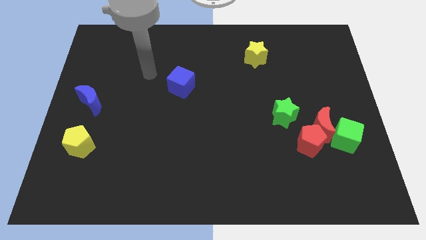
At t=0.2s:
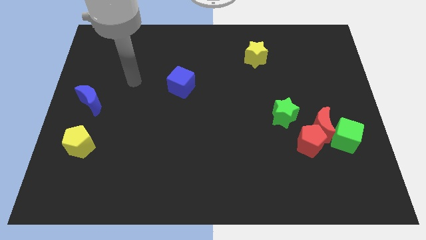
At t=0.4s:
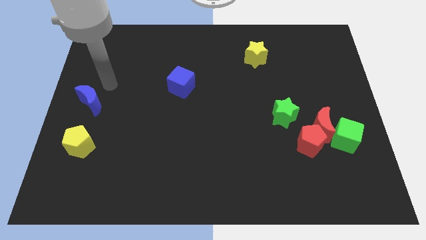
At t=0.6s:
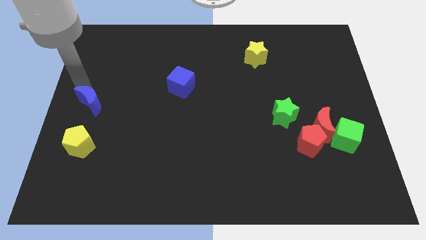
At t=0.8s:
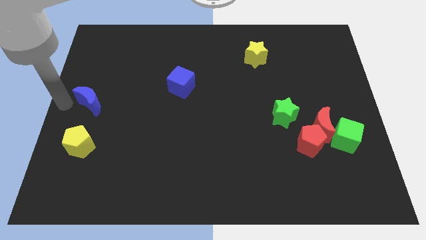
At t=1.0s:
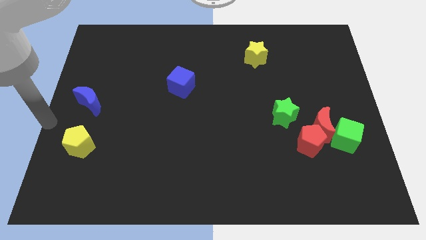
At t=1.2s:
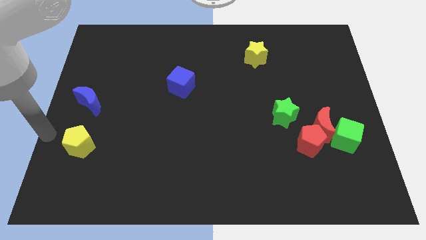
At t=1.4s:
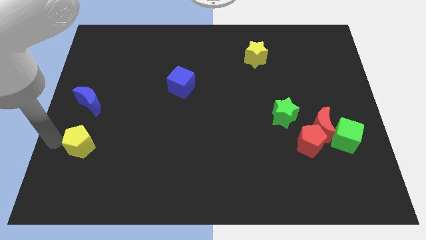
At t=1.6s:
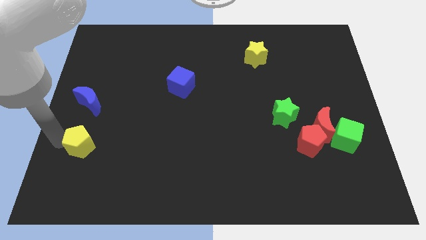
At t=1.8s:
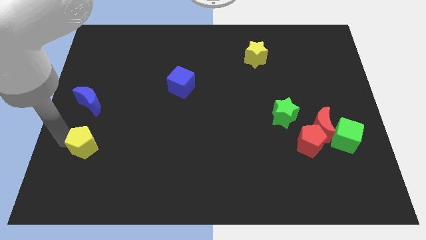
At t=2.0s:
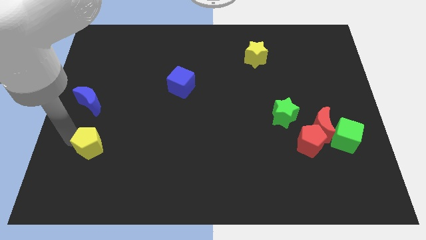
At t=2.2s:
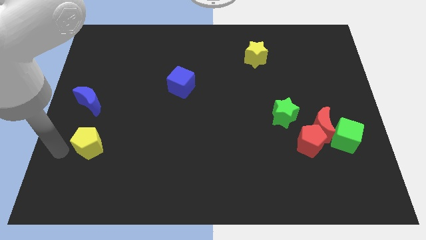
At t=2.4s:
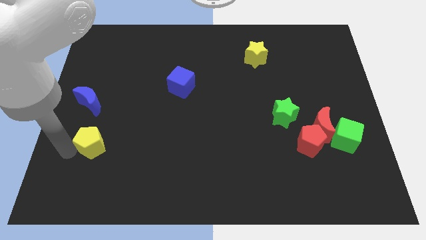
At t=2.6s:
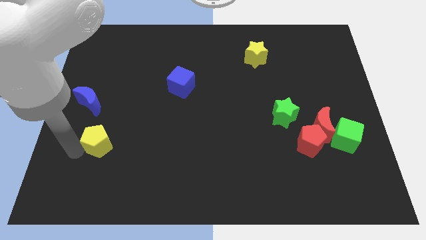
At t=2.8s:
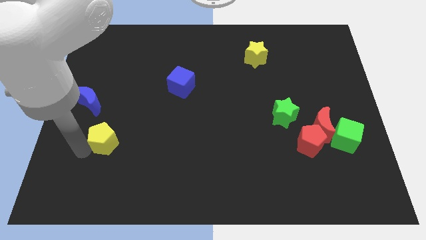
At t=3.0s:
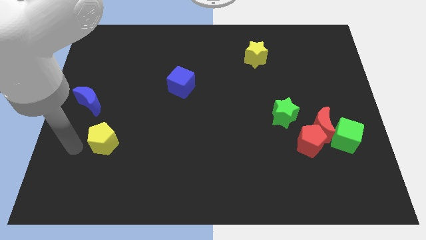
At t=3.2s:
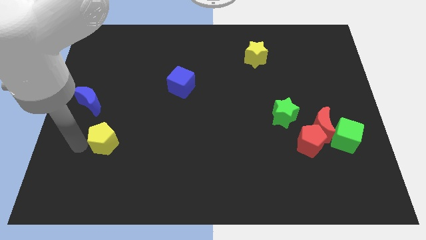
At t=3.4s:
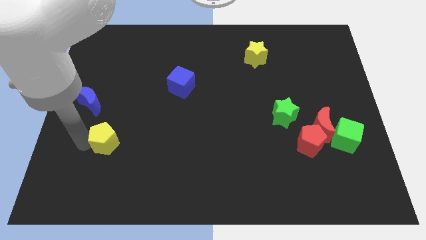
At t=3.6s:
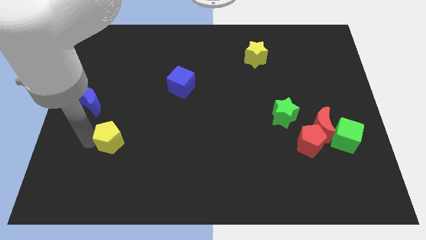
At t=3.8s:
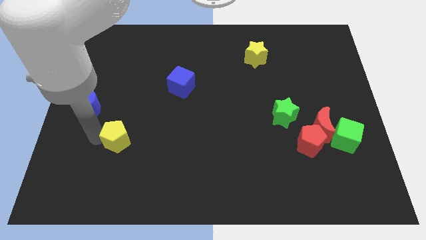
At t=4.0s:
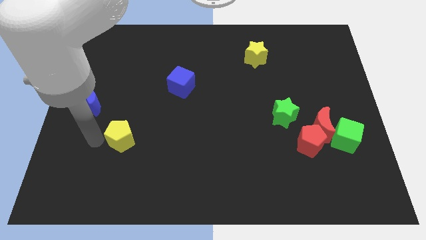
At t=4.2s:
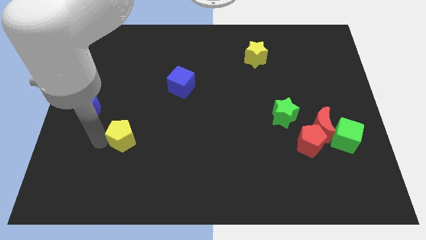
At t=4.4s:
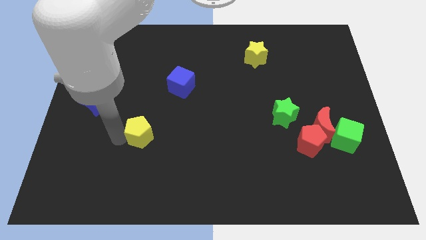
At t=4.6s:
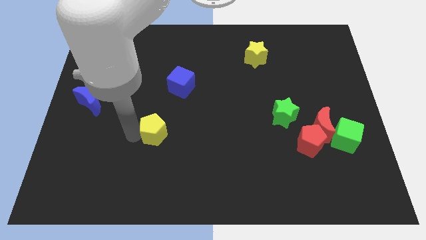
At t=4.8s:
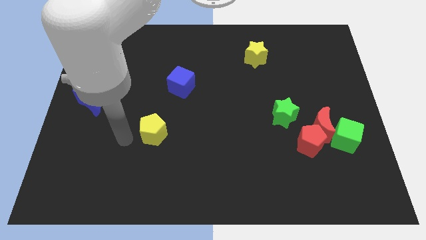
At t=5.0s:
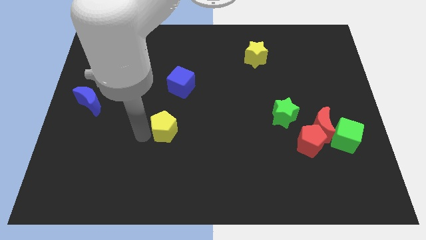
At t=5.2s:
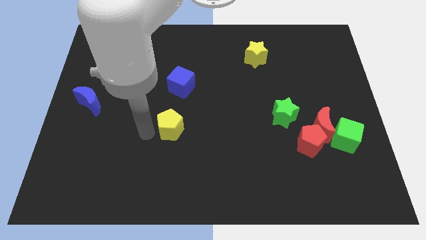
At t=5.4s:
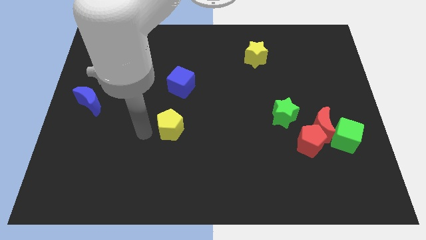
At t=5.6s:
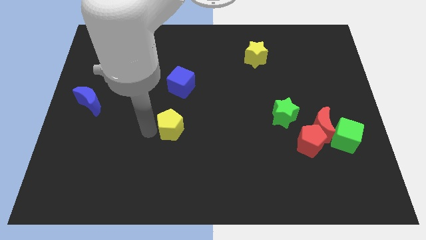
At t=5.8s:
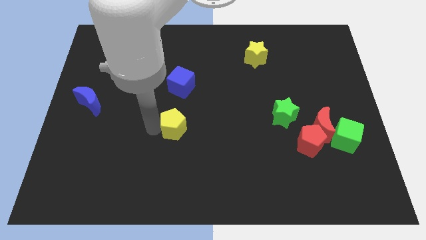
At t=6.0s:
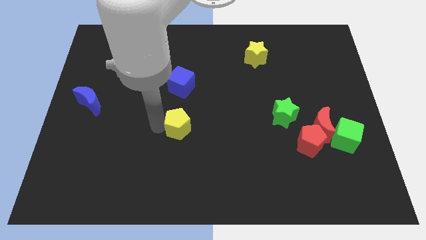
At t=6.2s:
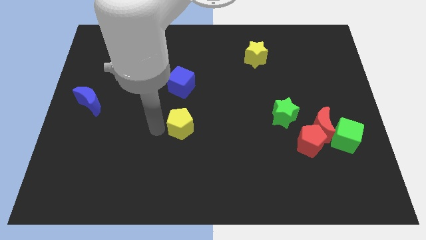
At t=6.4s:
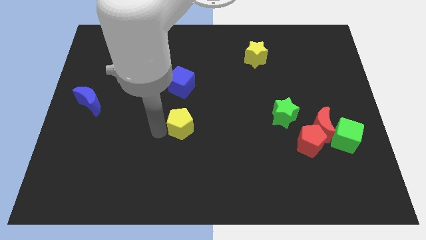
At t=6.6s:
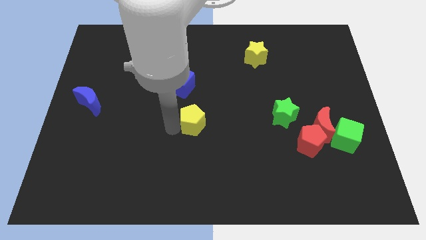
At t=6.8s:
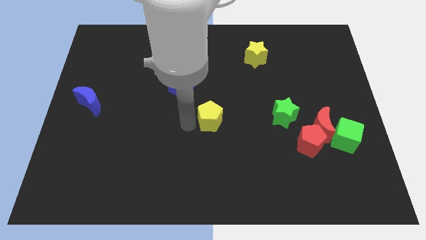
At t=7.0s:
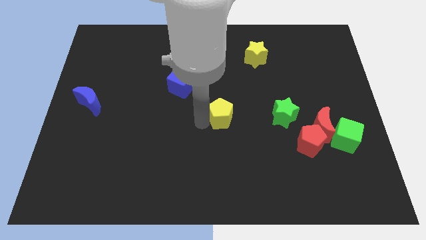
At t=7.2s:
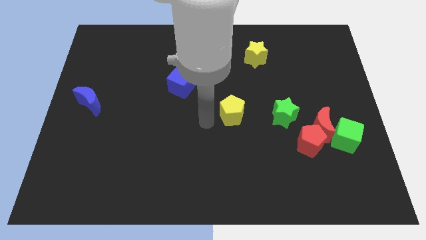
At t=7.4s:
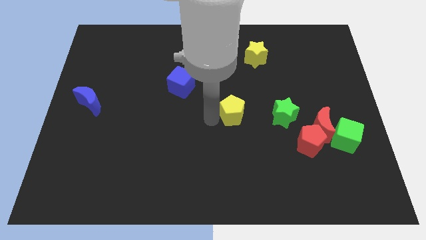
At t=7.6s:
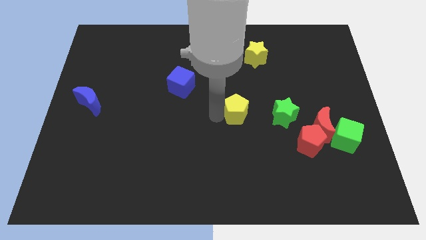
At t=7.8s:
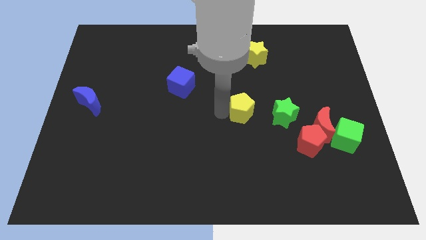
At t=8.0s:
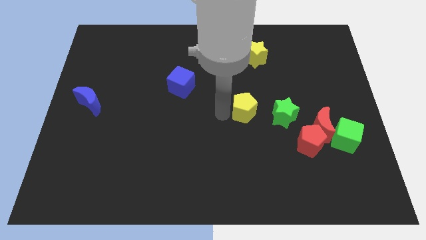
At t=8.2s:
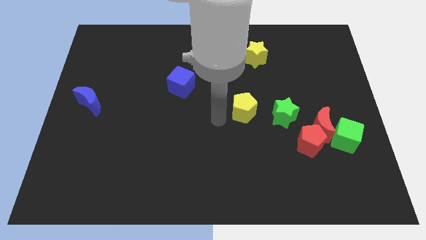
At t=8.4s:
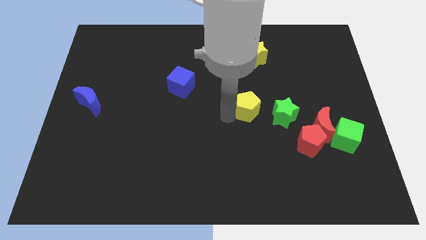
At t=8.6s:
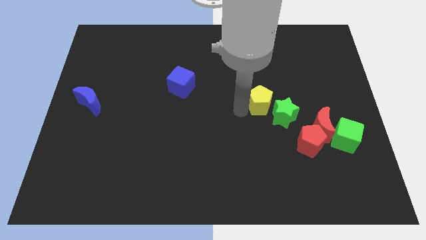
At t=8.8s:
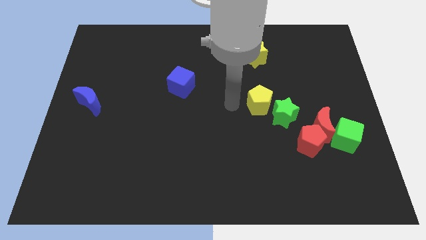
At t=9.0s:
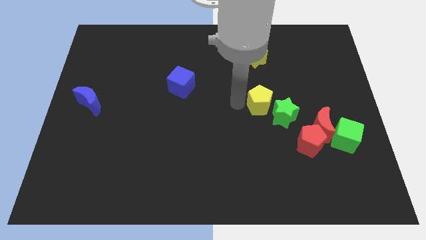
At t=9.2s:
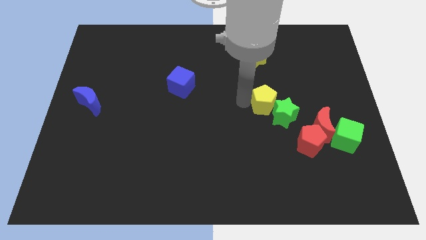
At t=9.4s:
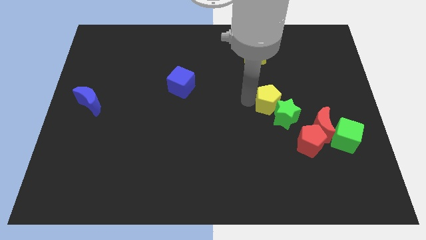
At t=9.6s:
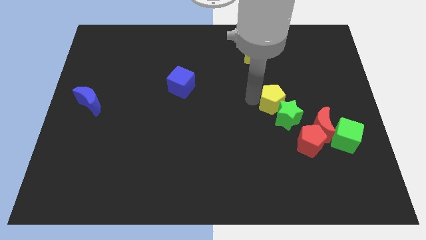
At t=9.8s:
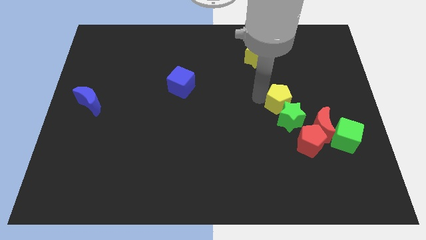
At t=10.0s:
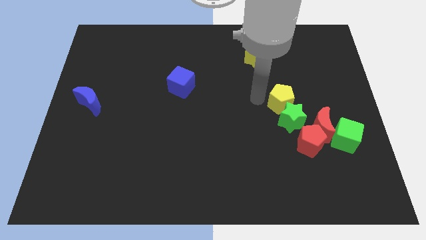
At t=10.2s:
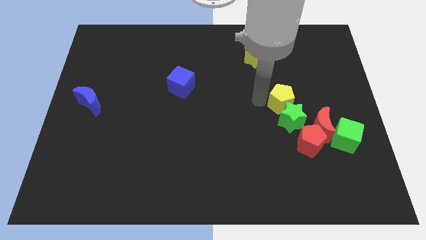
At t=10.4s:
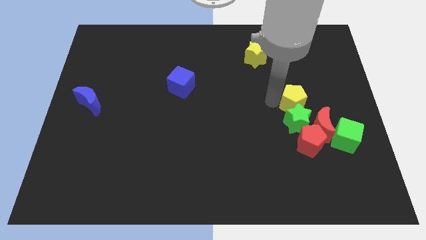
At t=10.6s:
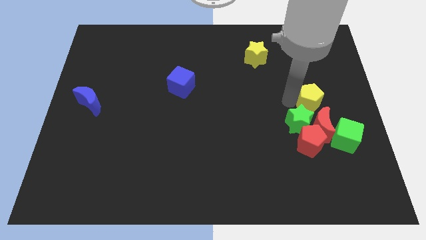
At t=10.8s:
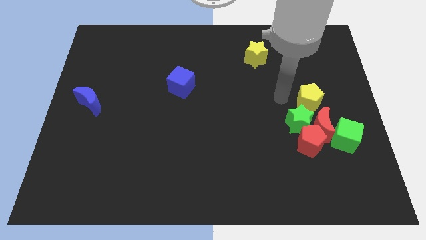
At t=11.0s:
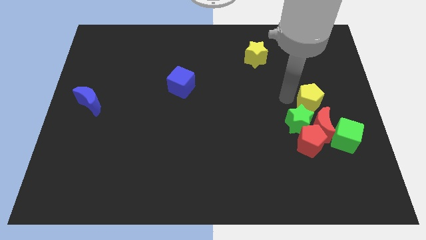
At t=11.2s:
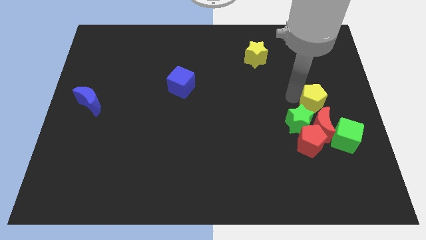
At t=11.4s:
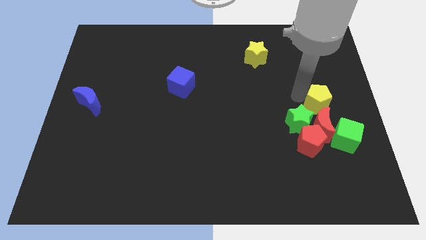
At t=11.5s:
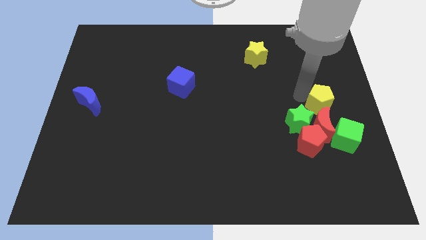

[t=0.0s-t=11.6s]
put the yellow pentagon to the right side

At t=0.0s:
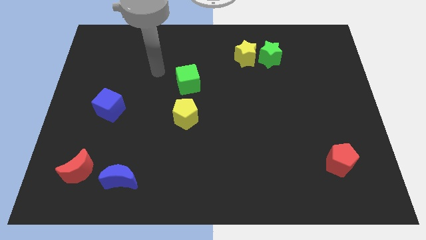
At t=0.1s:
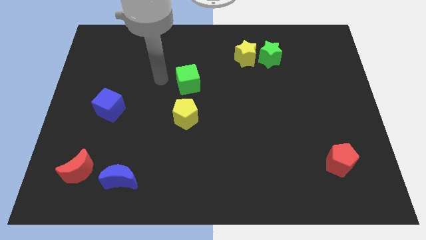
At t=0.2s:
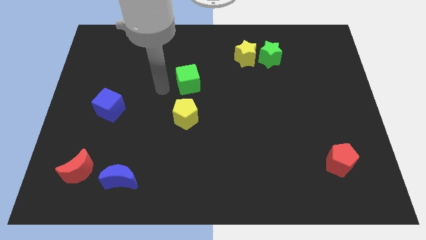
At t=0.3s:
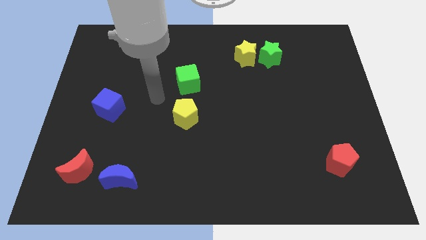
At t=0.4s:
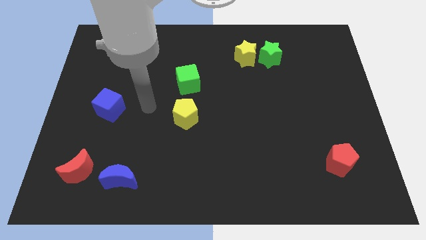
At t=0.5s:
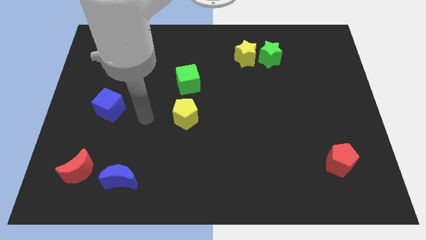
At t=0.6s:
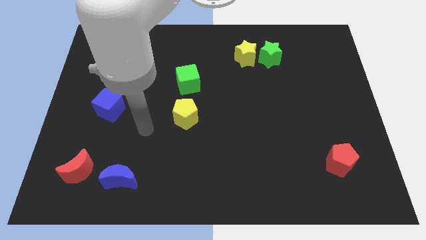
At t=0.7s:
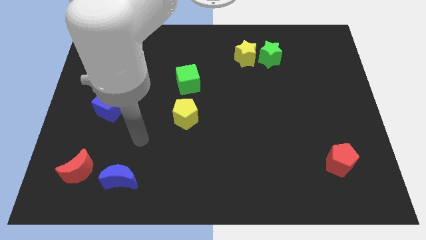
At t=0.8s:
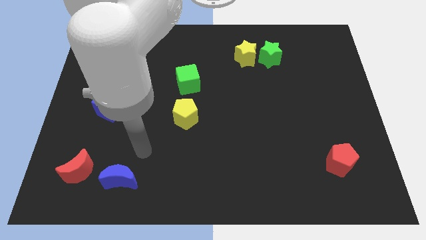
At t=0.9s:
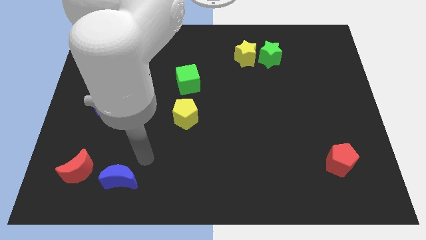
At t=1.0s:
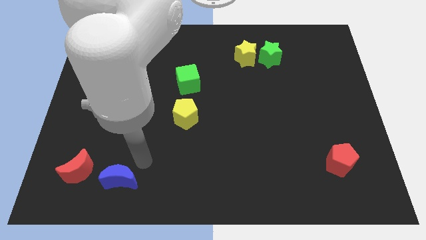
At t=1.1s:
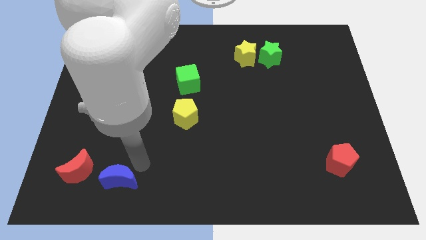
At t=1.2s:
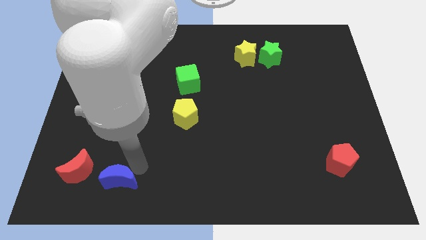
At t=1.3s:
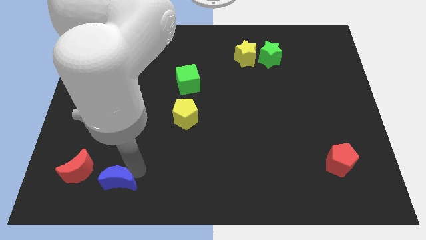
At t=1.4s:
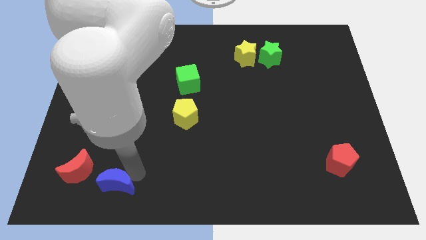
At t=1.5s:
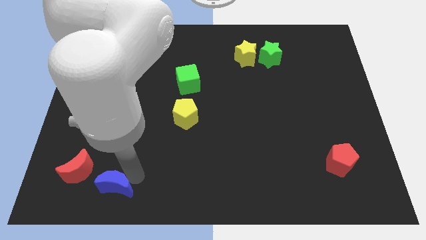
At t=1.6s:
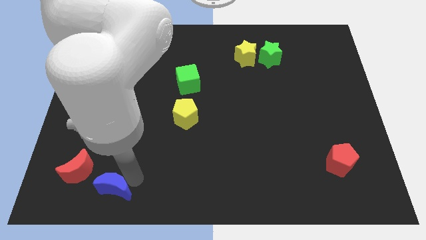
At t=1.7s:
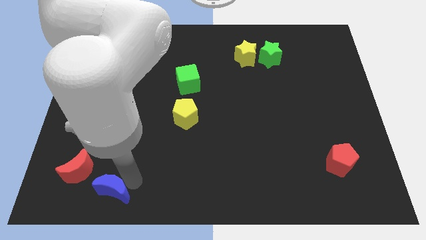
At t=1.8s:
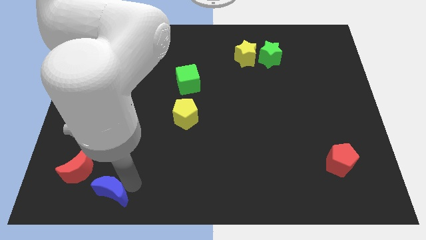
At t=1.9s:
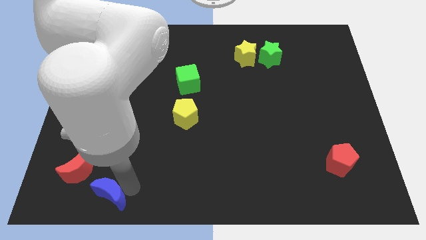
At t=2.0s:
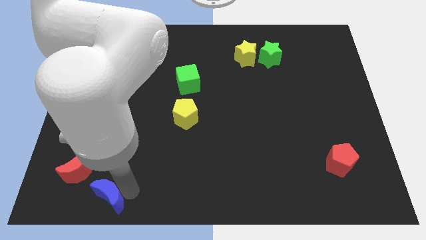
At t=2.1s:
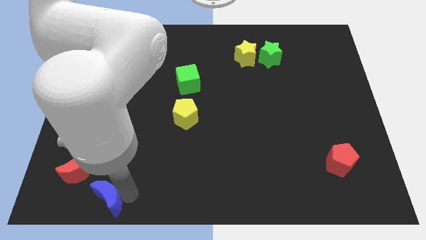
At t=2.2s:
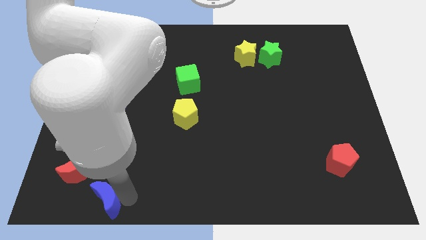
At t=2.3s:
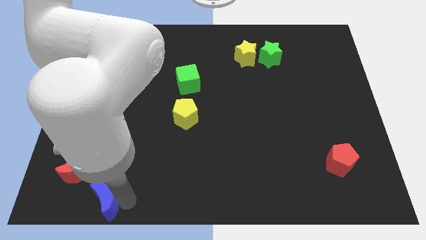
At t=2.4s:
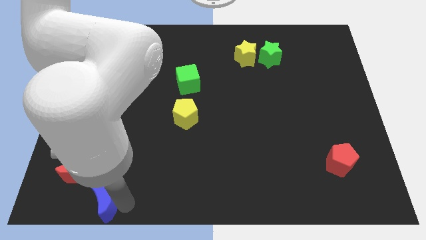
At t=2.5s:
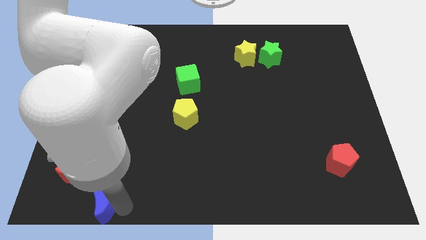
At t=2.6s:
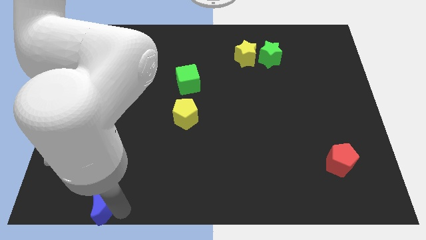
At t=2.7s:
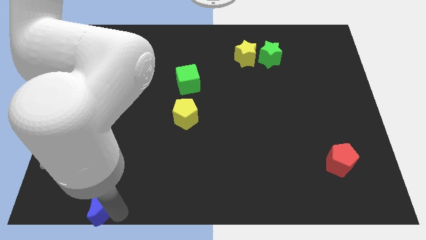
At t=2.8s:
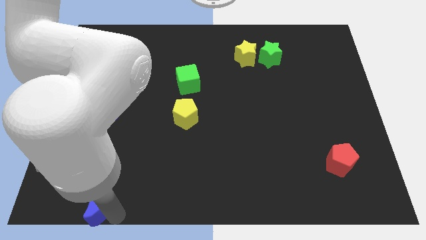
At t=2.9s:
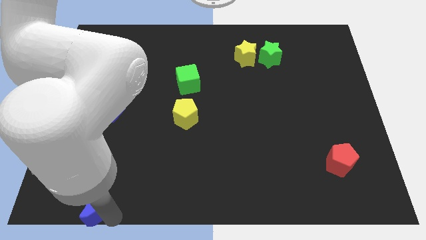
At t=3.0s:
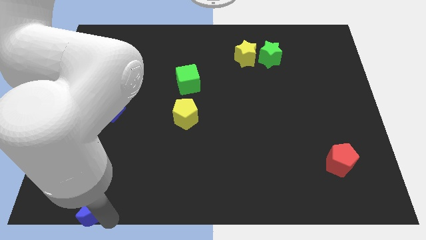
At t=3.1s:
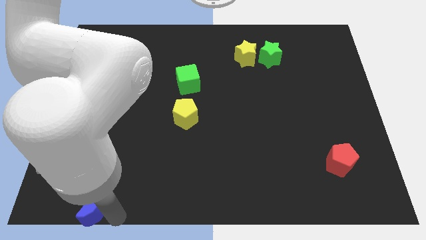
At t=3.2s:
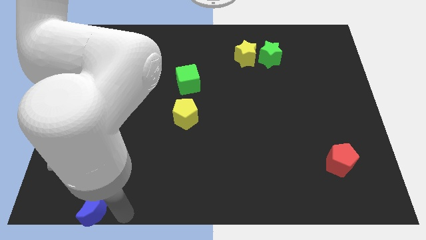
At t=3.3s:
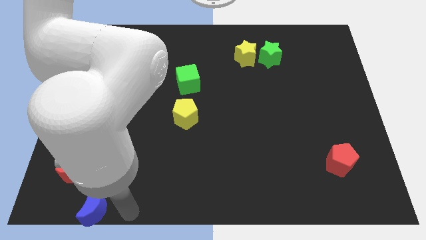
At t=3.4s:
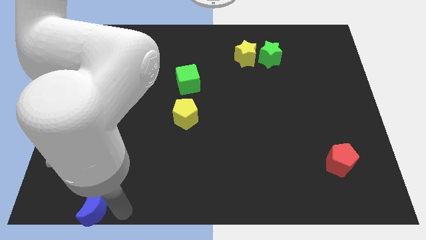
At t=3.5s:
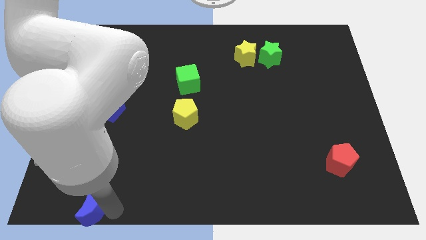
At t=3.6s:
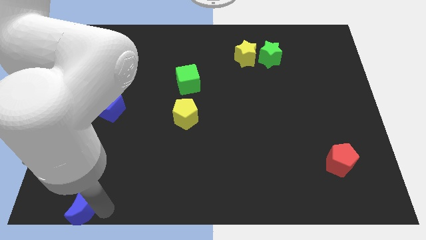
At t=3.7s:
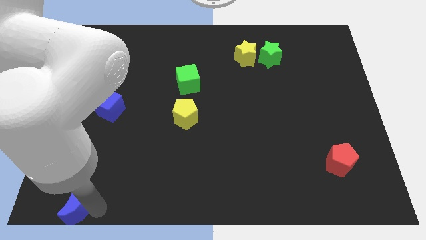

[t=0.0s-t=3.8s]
move the blue moon to the bottom left
